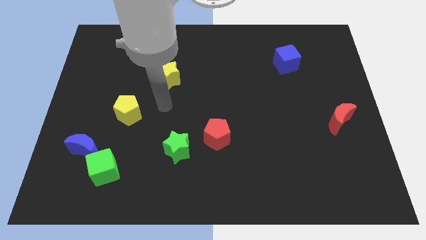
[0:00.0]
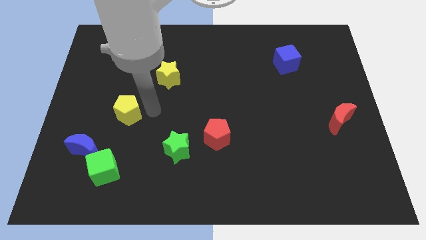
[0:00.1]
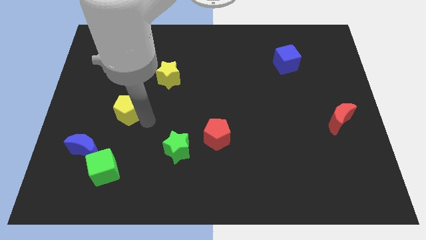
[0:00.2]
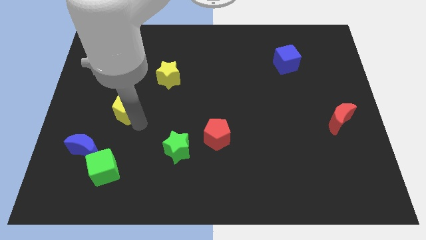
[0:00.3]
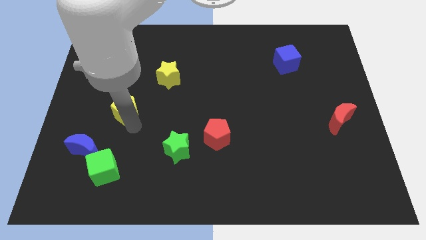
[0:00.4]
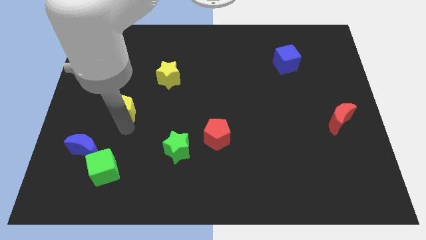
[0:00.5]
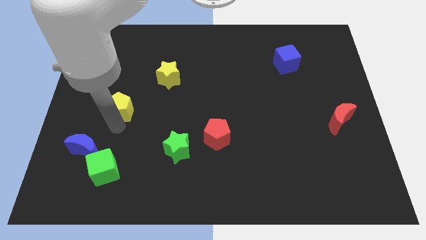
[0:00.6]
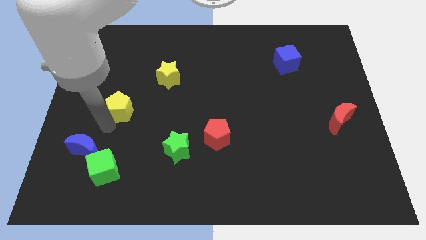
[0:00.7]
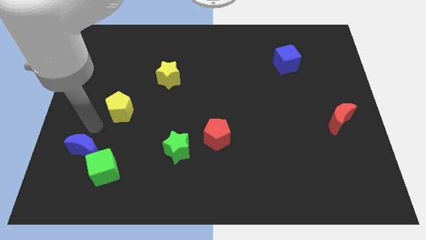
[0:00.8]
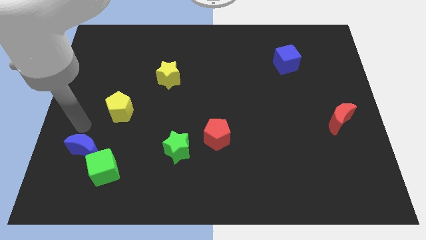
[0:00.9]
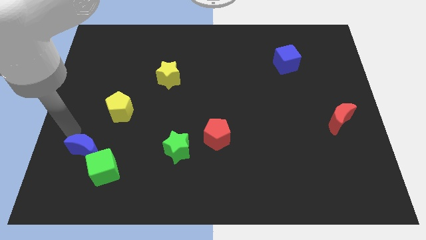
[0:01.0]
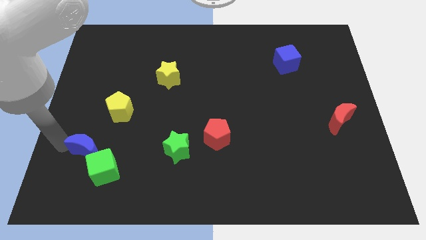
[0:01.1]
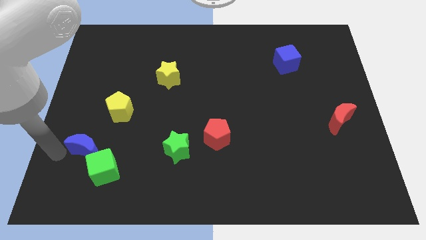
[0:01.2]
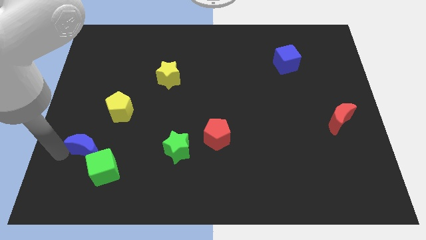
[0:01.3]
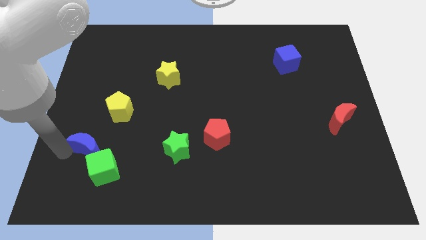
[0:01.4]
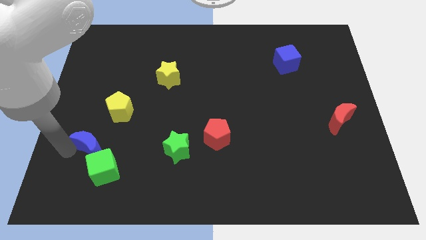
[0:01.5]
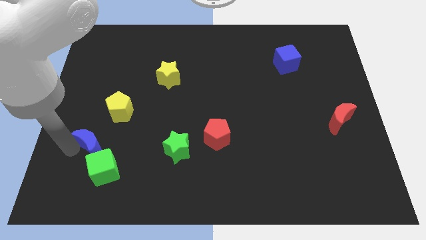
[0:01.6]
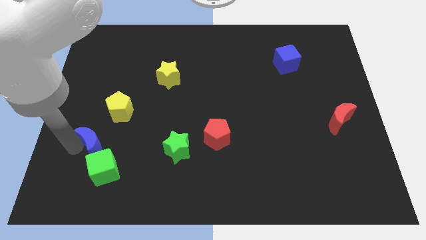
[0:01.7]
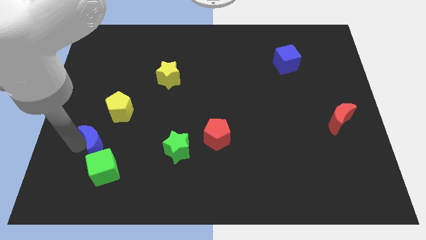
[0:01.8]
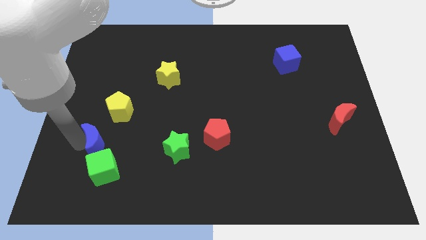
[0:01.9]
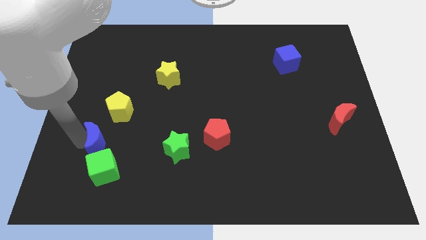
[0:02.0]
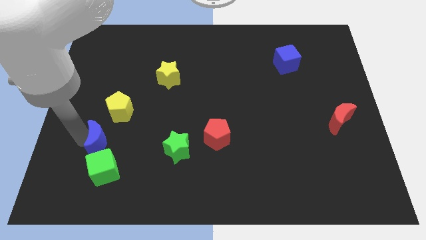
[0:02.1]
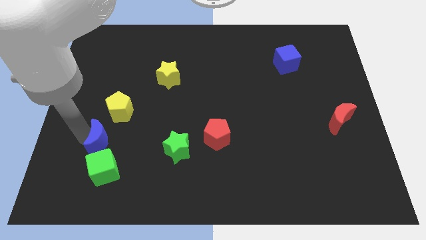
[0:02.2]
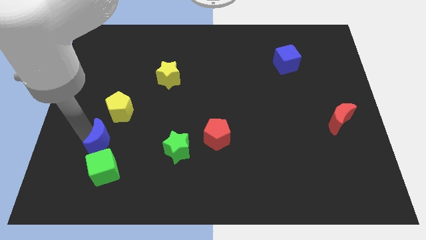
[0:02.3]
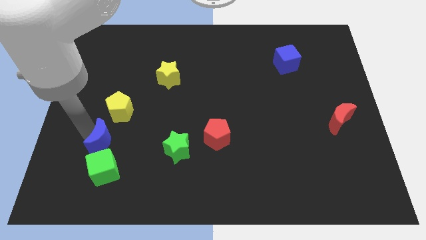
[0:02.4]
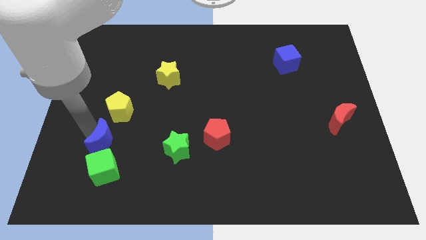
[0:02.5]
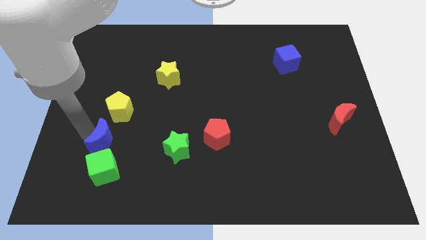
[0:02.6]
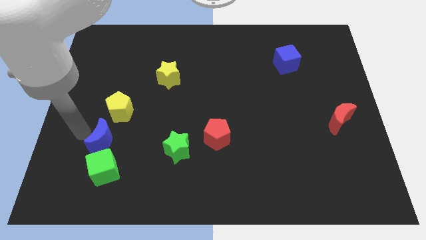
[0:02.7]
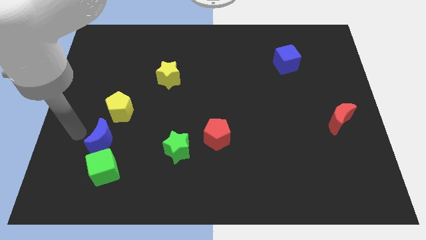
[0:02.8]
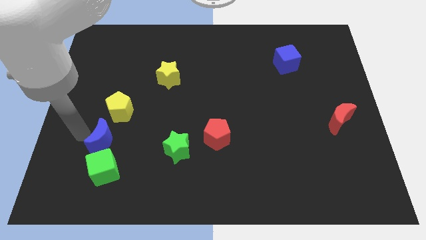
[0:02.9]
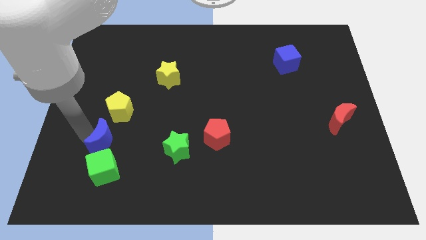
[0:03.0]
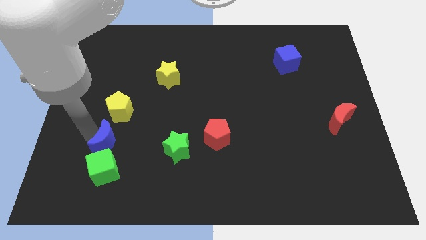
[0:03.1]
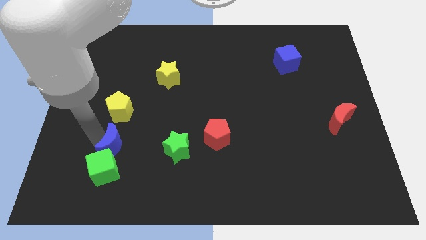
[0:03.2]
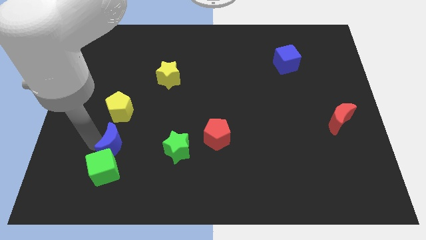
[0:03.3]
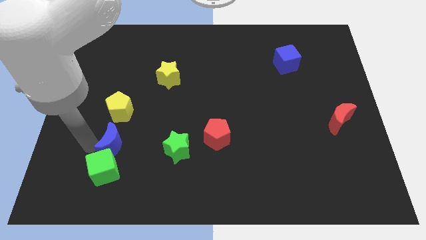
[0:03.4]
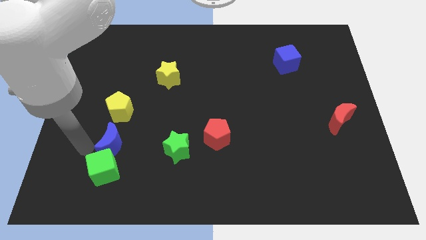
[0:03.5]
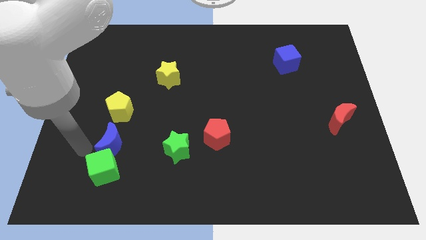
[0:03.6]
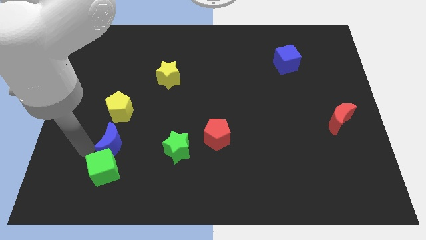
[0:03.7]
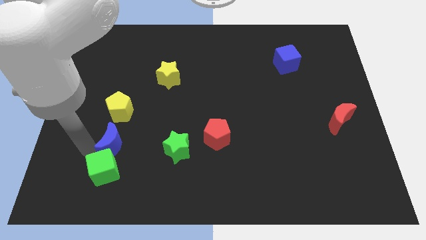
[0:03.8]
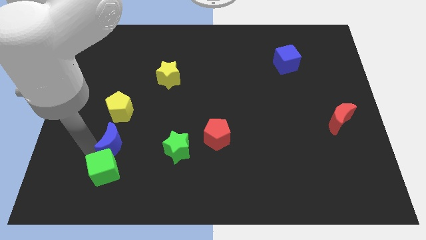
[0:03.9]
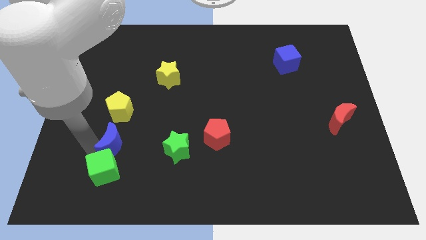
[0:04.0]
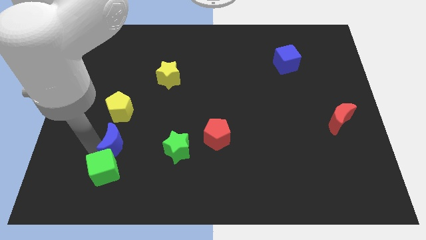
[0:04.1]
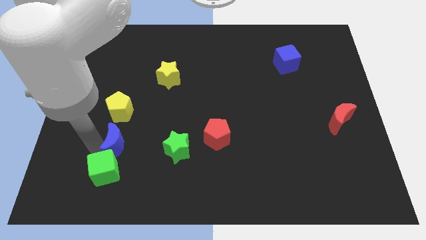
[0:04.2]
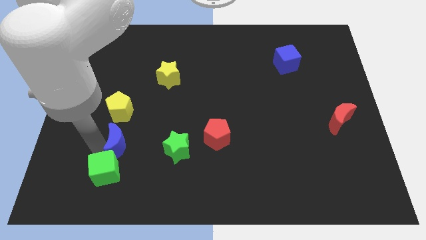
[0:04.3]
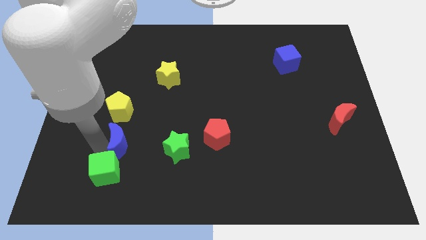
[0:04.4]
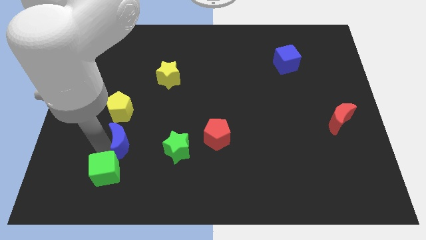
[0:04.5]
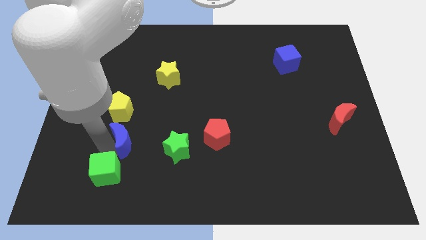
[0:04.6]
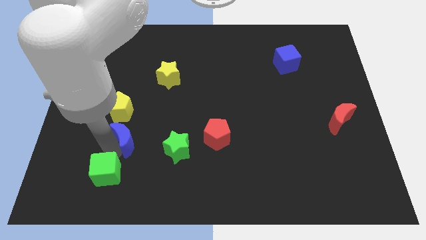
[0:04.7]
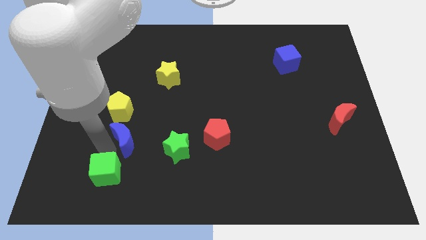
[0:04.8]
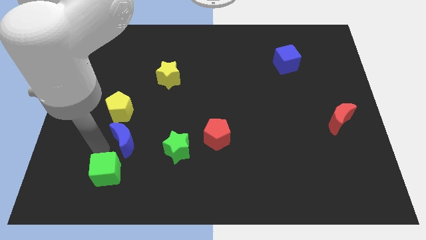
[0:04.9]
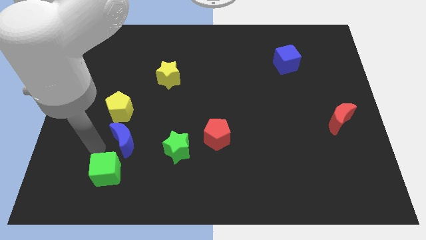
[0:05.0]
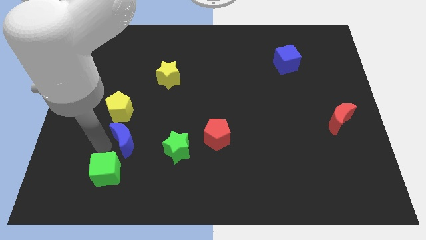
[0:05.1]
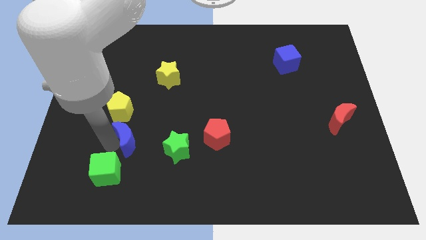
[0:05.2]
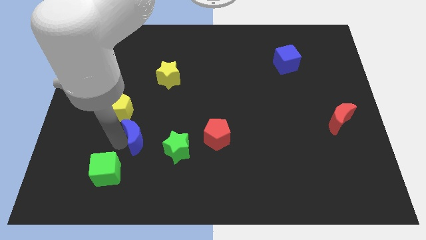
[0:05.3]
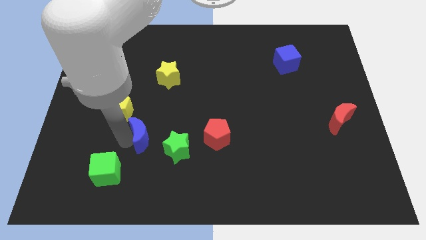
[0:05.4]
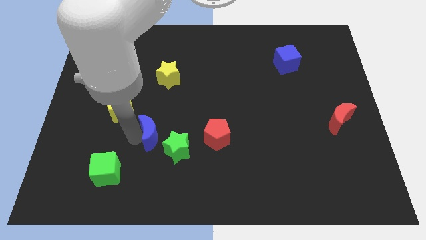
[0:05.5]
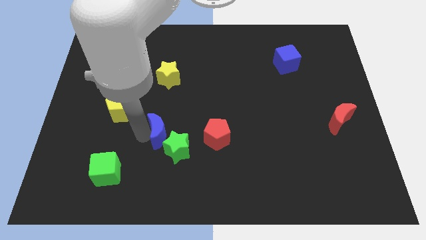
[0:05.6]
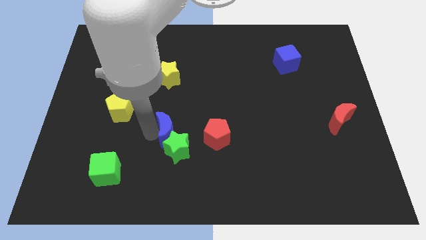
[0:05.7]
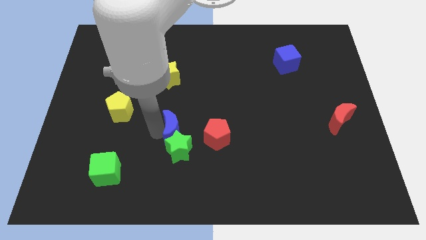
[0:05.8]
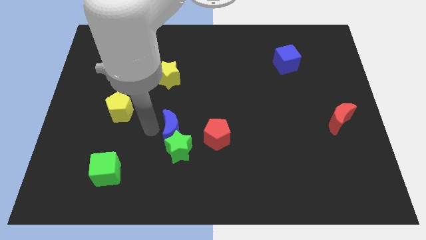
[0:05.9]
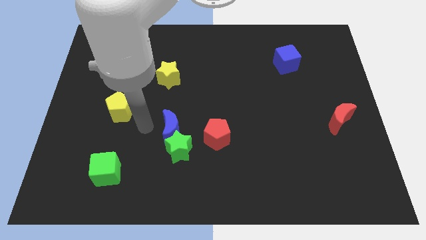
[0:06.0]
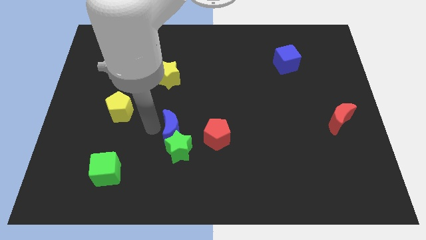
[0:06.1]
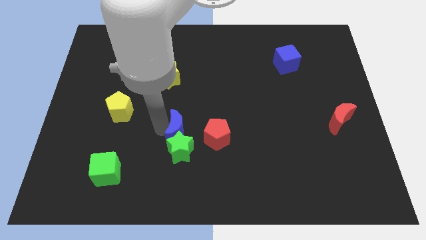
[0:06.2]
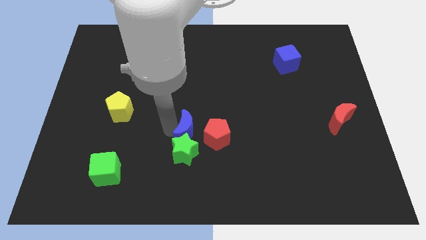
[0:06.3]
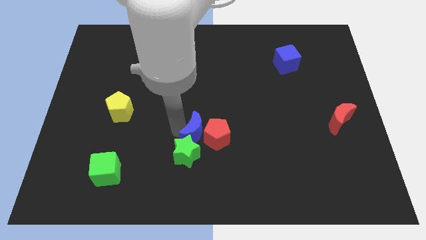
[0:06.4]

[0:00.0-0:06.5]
slide the blue moon close to the red pentagon

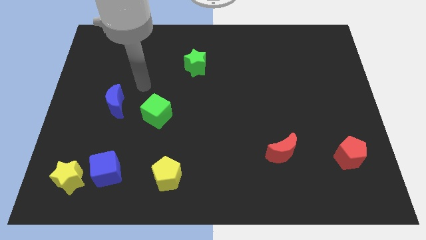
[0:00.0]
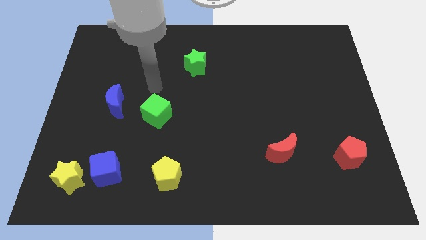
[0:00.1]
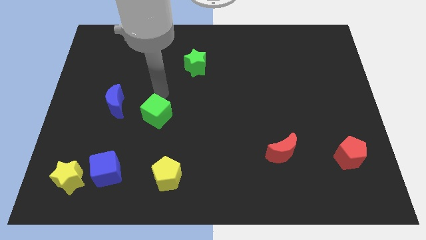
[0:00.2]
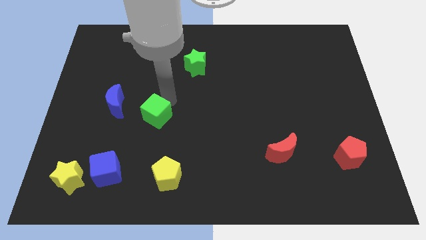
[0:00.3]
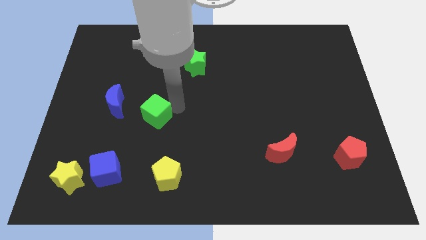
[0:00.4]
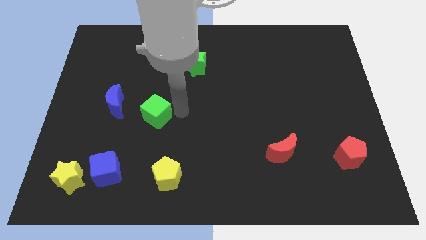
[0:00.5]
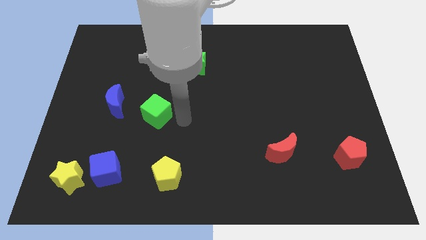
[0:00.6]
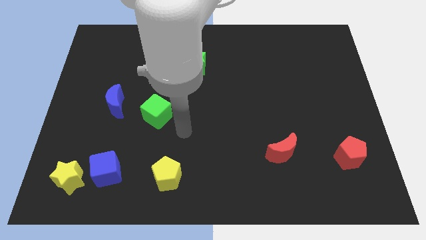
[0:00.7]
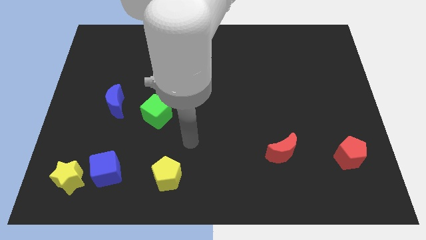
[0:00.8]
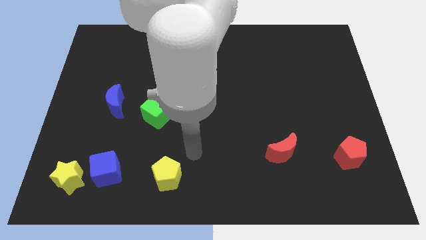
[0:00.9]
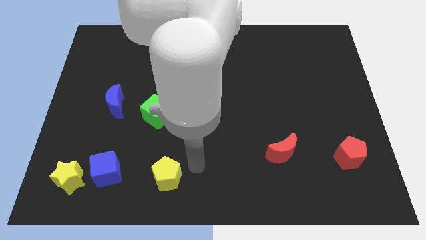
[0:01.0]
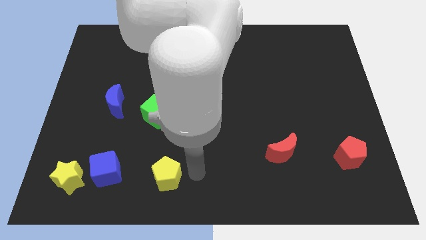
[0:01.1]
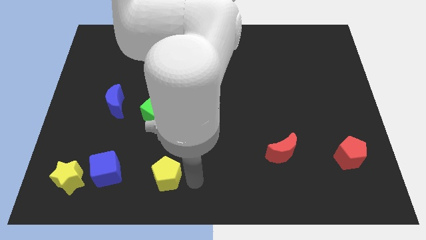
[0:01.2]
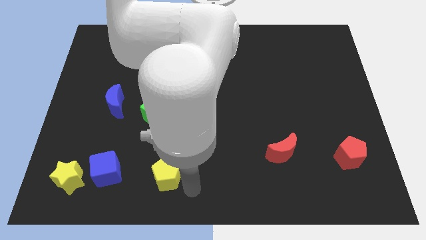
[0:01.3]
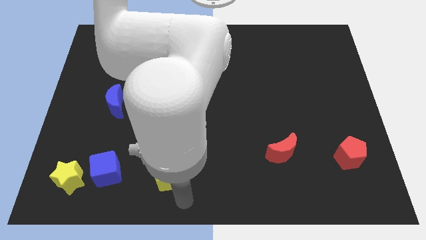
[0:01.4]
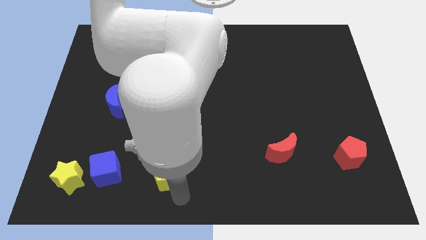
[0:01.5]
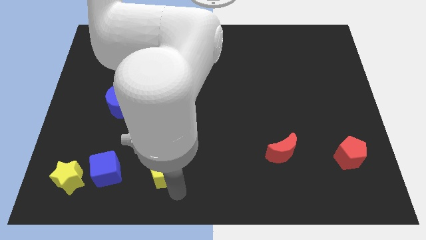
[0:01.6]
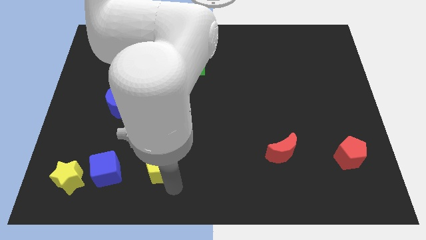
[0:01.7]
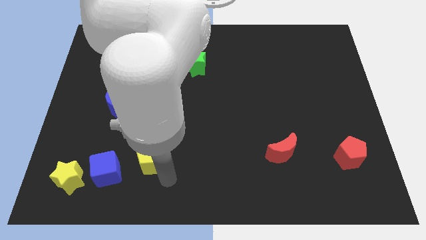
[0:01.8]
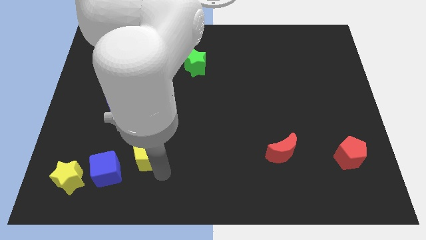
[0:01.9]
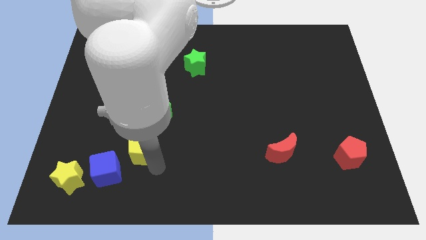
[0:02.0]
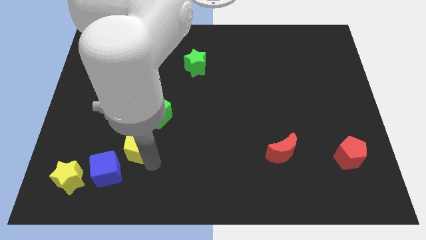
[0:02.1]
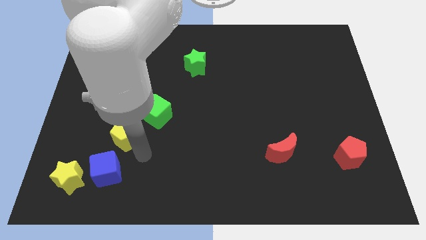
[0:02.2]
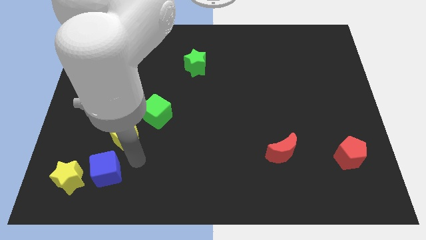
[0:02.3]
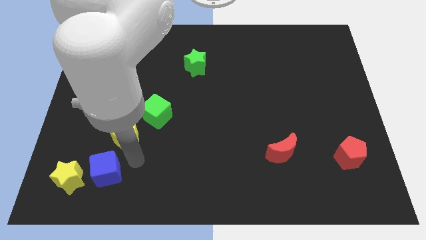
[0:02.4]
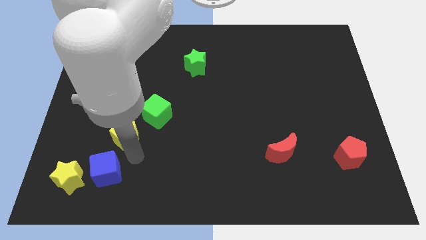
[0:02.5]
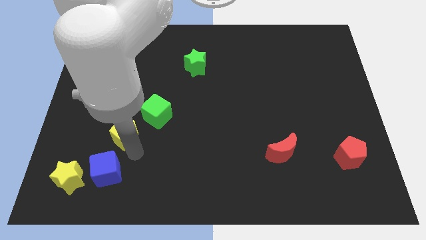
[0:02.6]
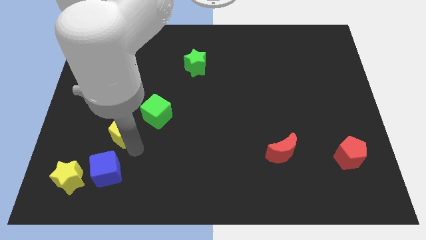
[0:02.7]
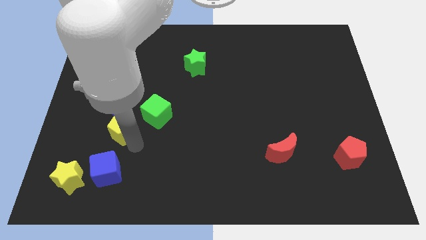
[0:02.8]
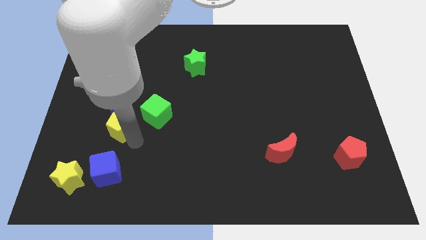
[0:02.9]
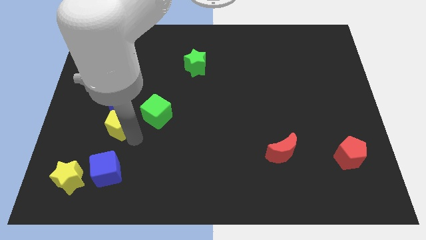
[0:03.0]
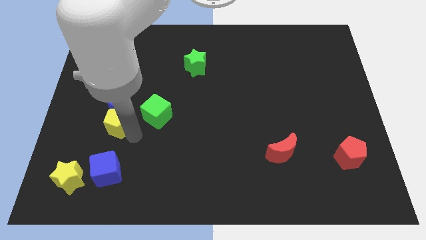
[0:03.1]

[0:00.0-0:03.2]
move the yellow pentagon towards the blue moon
